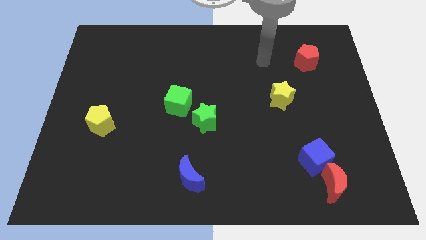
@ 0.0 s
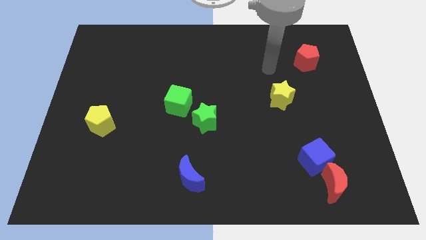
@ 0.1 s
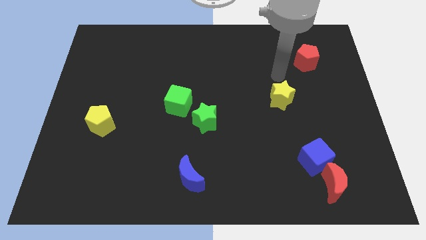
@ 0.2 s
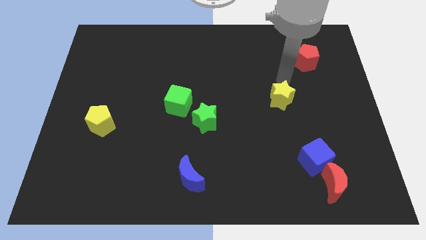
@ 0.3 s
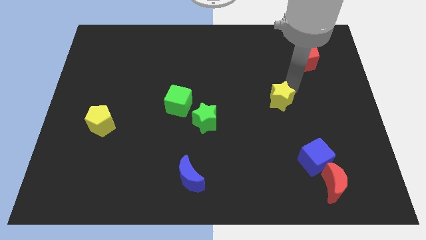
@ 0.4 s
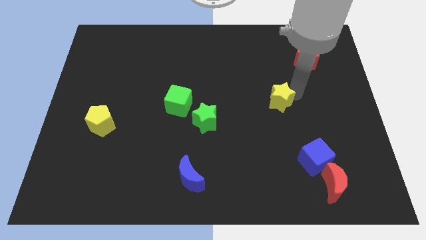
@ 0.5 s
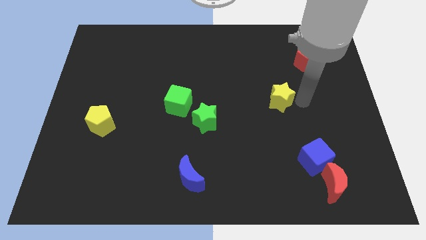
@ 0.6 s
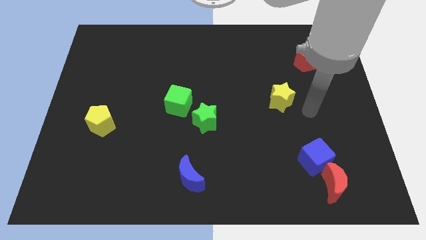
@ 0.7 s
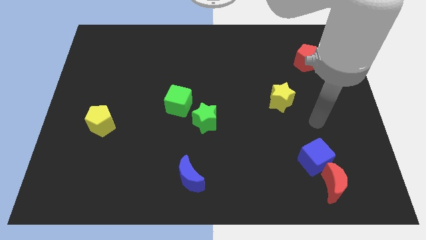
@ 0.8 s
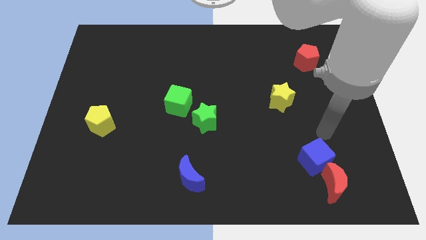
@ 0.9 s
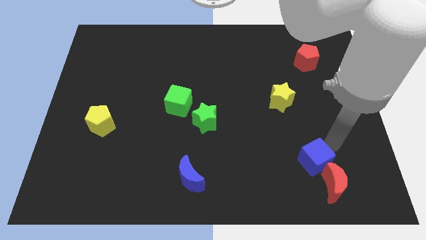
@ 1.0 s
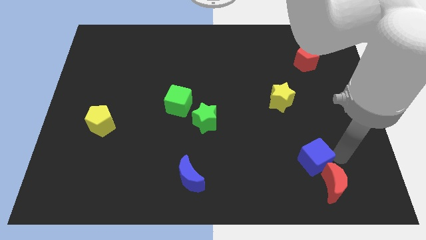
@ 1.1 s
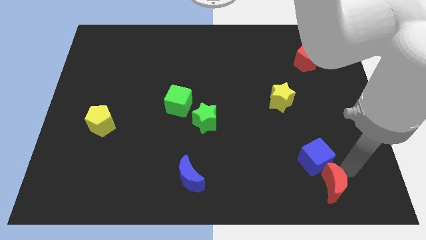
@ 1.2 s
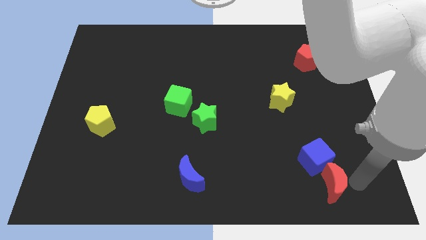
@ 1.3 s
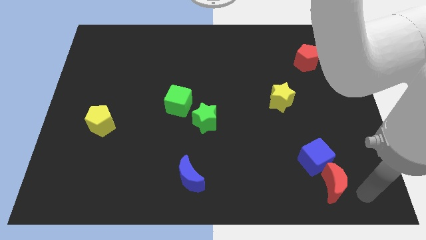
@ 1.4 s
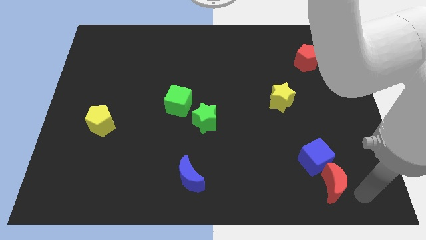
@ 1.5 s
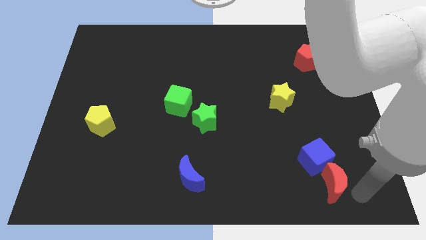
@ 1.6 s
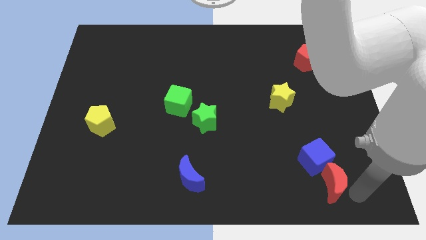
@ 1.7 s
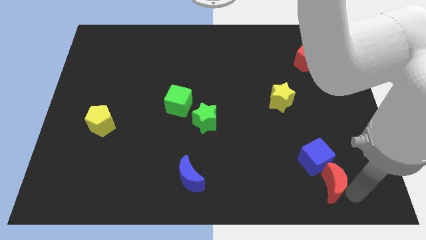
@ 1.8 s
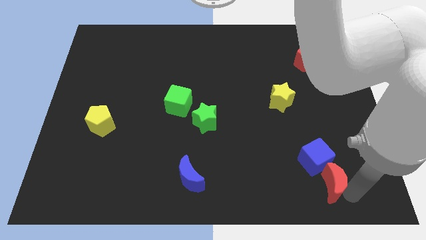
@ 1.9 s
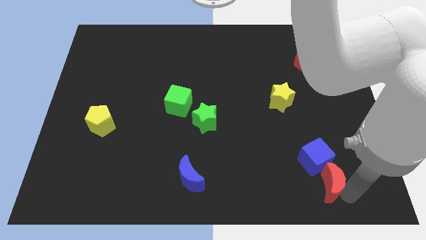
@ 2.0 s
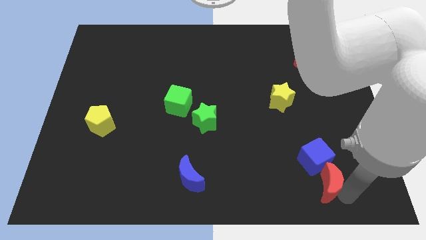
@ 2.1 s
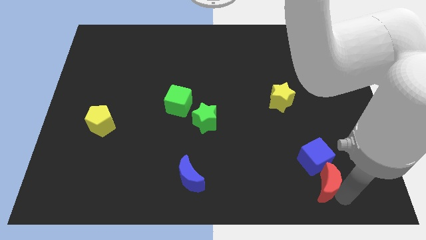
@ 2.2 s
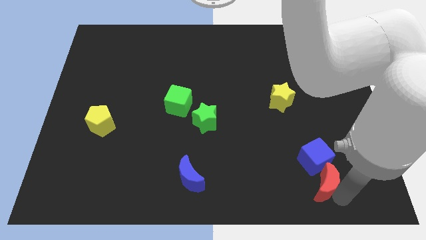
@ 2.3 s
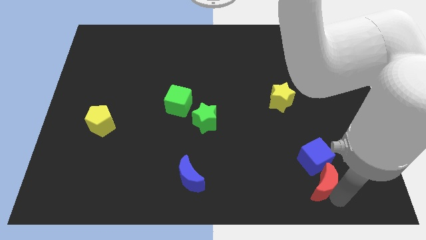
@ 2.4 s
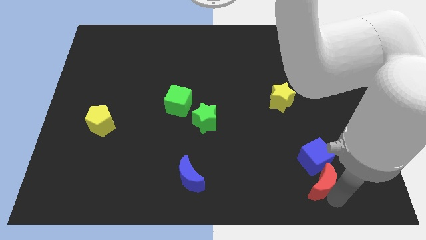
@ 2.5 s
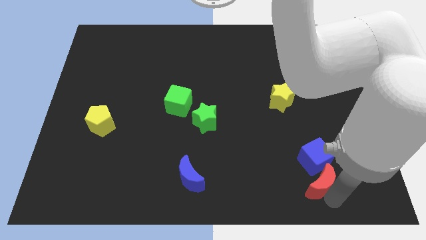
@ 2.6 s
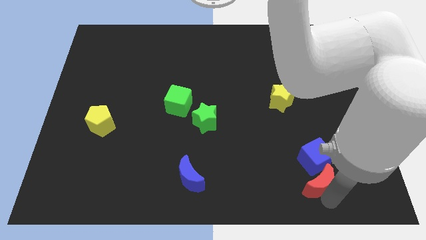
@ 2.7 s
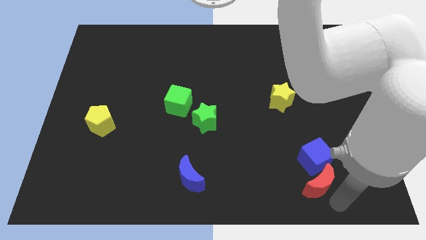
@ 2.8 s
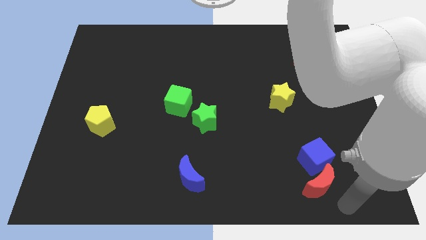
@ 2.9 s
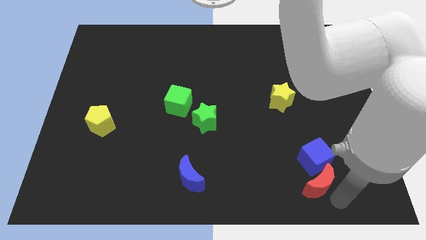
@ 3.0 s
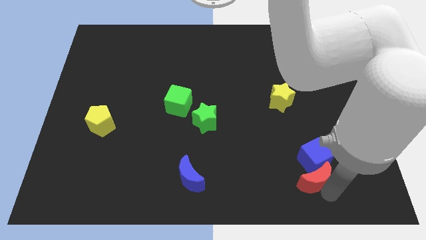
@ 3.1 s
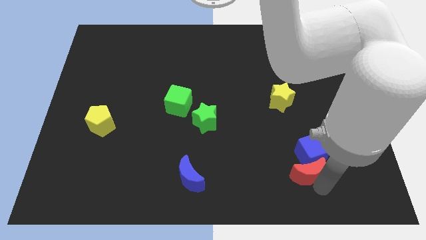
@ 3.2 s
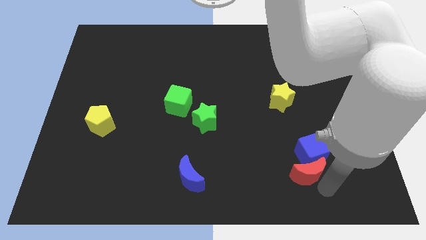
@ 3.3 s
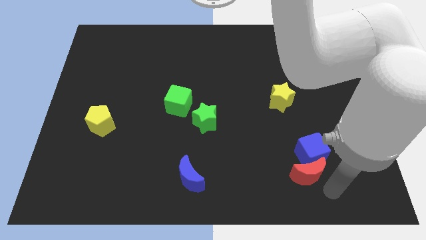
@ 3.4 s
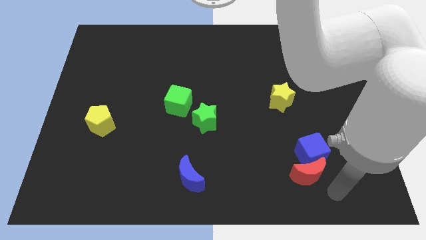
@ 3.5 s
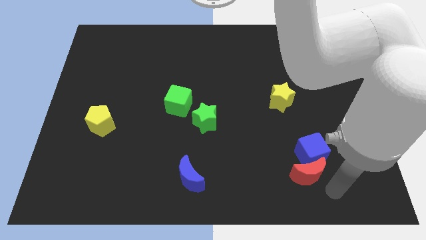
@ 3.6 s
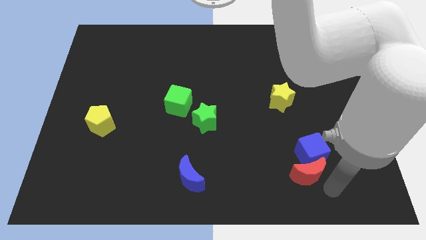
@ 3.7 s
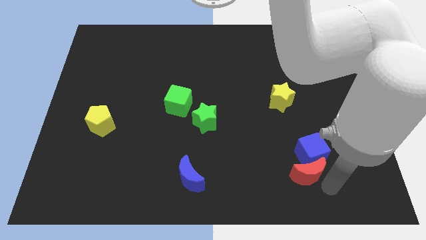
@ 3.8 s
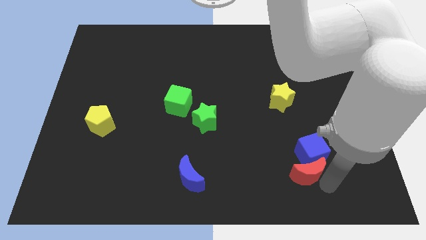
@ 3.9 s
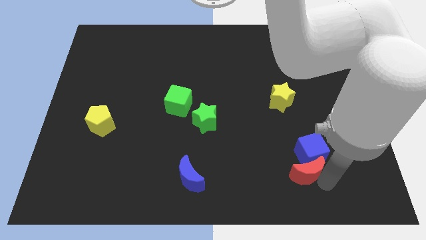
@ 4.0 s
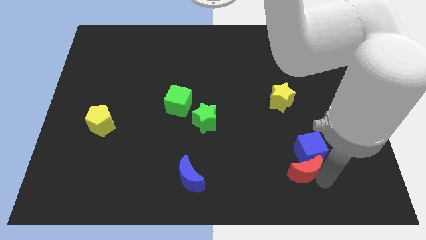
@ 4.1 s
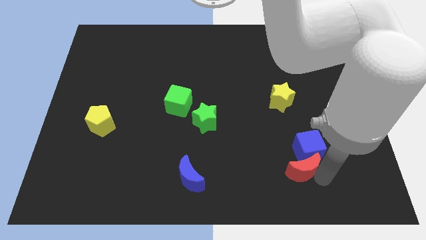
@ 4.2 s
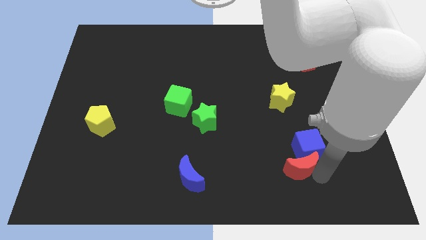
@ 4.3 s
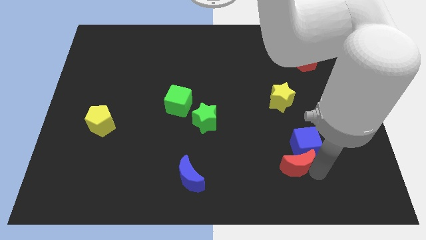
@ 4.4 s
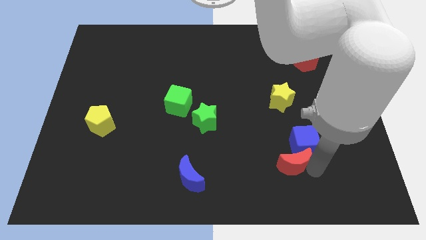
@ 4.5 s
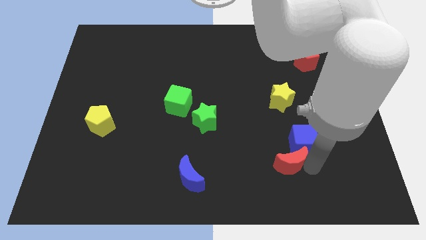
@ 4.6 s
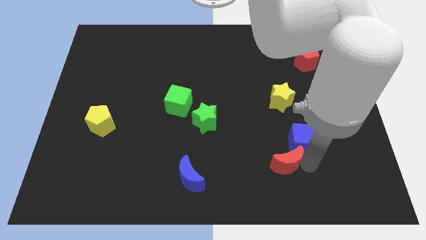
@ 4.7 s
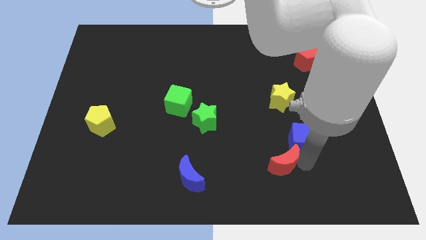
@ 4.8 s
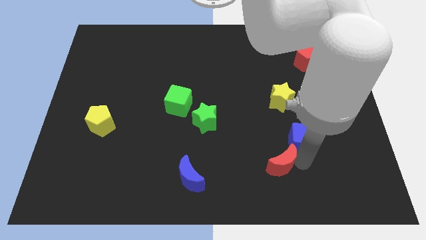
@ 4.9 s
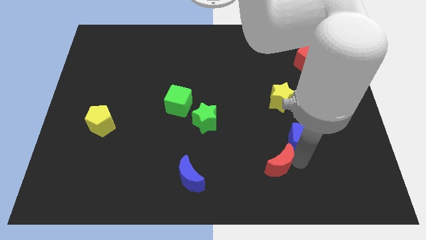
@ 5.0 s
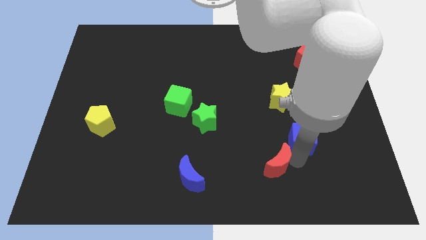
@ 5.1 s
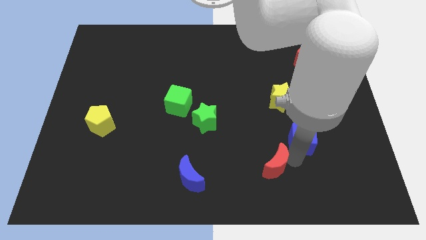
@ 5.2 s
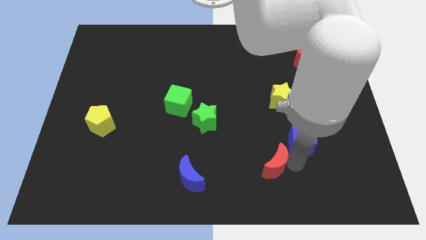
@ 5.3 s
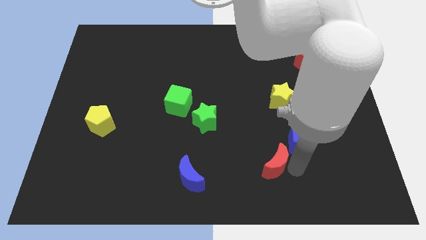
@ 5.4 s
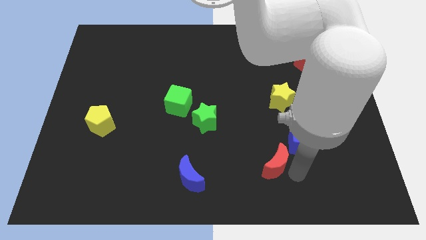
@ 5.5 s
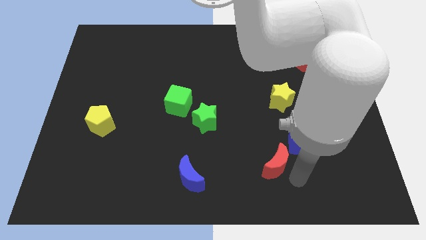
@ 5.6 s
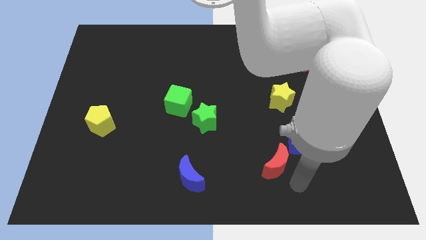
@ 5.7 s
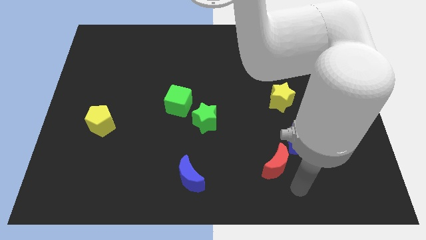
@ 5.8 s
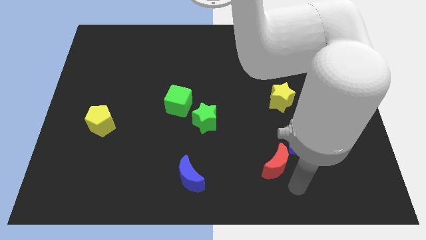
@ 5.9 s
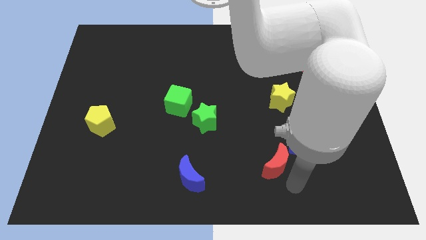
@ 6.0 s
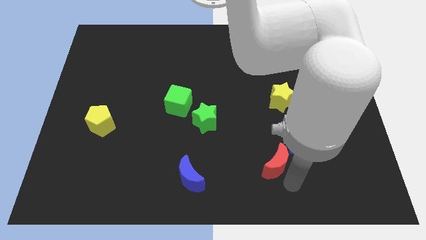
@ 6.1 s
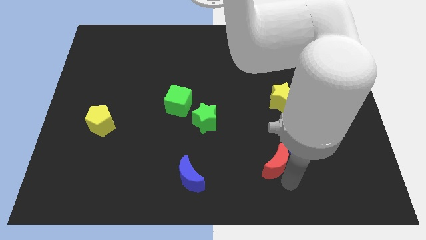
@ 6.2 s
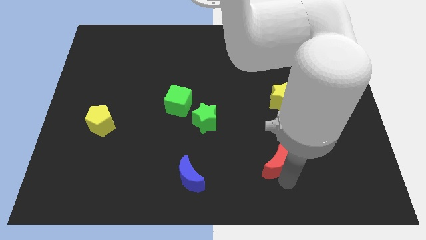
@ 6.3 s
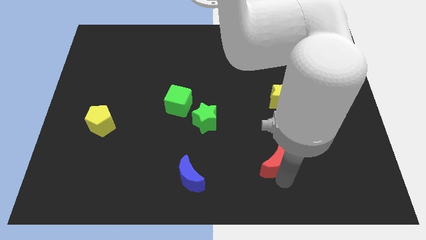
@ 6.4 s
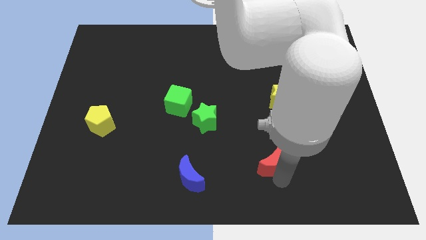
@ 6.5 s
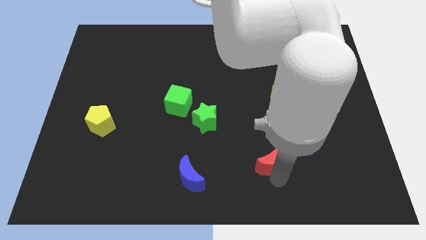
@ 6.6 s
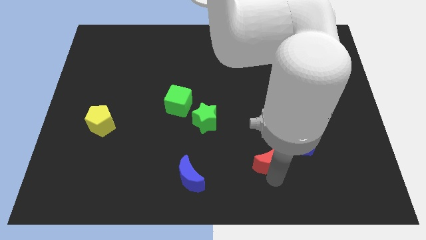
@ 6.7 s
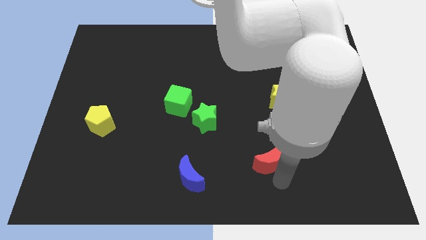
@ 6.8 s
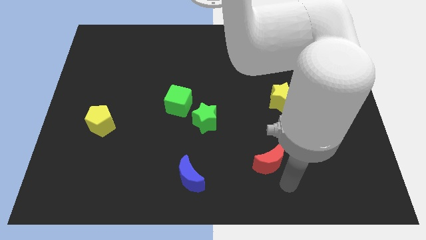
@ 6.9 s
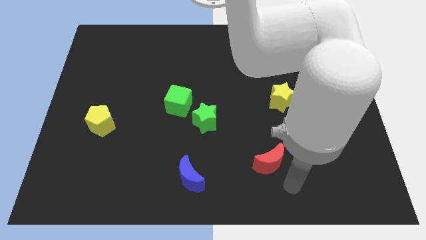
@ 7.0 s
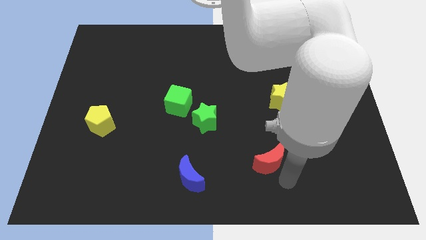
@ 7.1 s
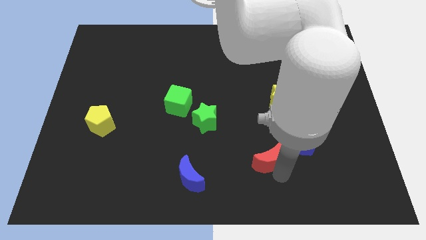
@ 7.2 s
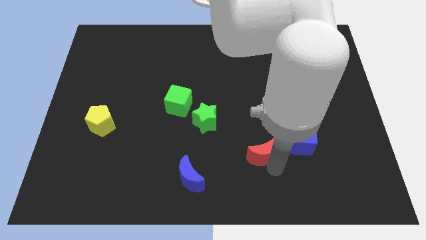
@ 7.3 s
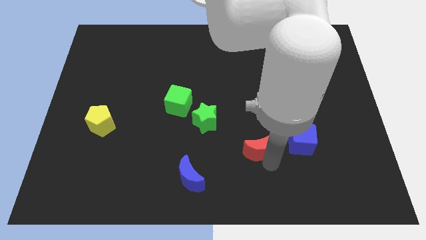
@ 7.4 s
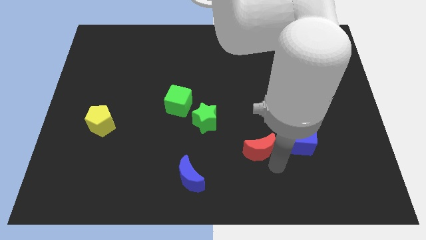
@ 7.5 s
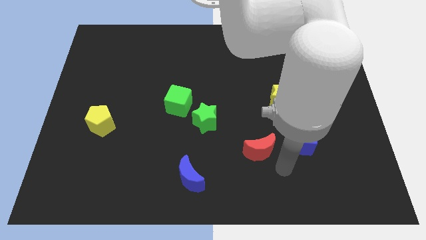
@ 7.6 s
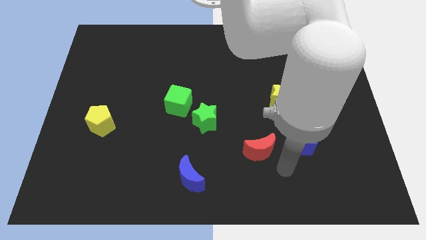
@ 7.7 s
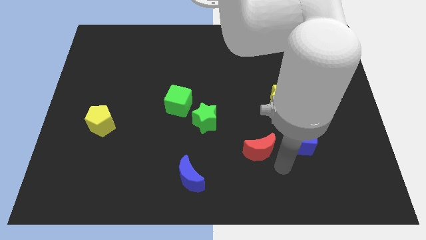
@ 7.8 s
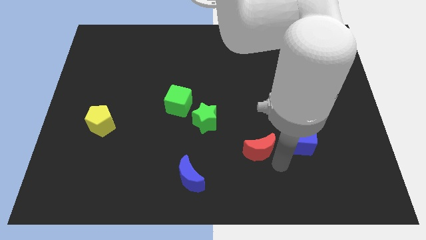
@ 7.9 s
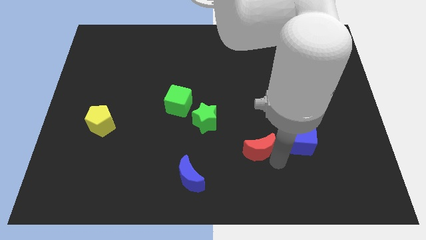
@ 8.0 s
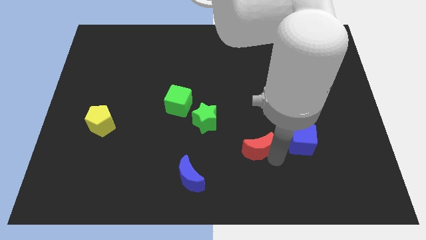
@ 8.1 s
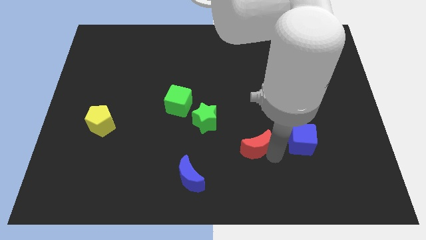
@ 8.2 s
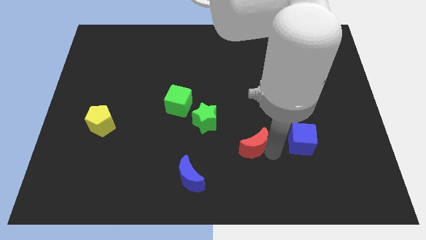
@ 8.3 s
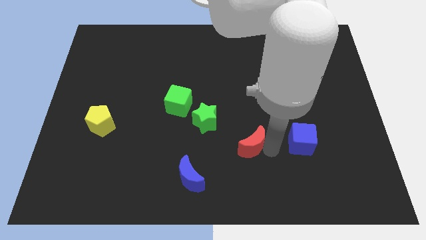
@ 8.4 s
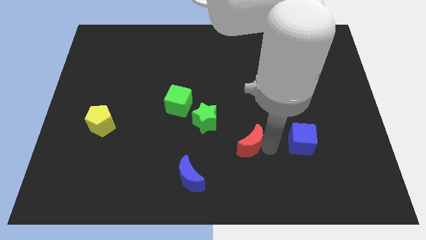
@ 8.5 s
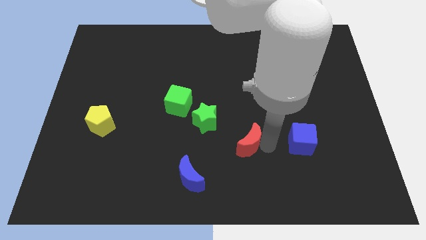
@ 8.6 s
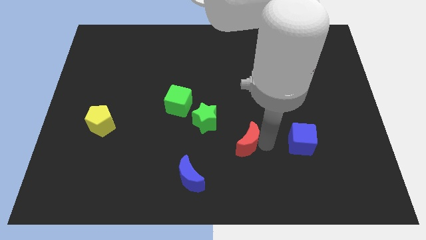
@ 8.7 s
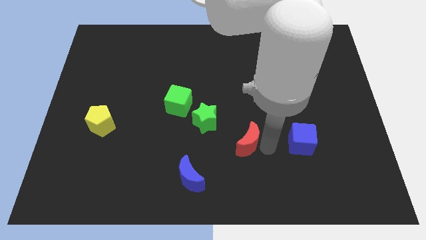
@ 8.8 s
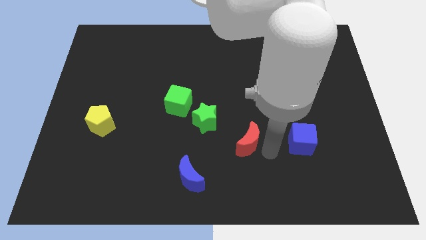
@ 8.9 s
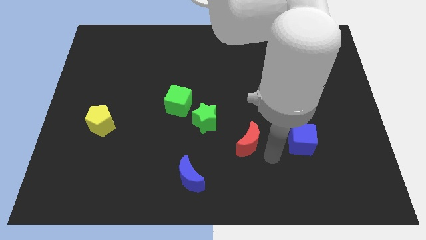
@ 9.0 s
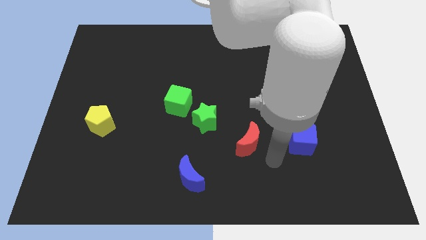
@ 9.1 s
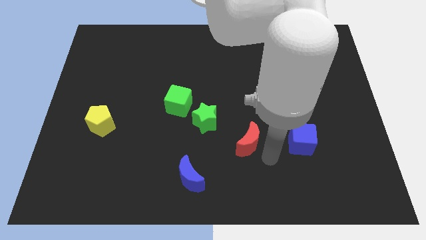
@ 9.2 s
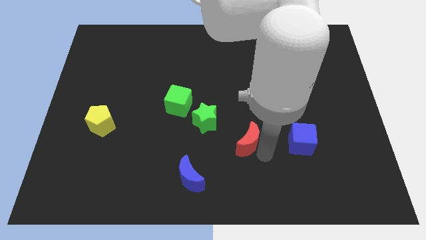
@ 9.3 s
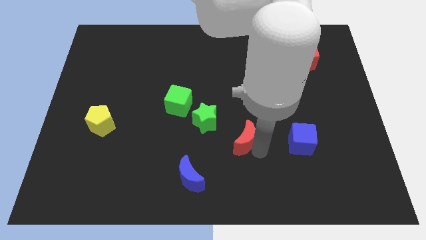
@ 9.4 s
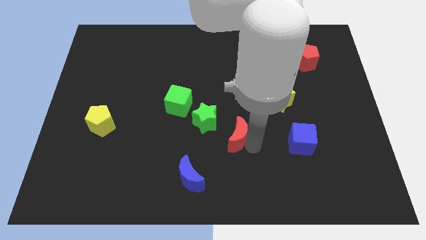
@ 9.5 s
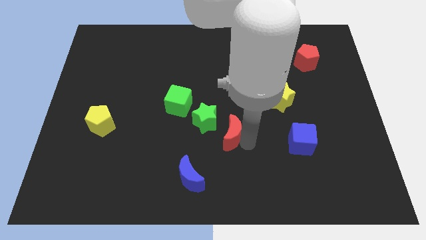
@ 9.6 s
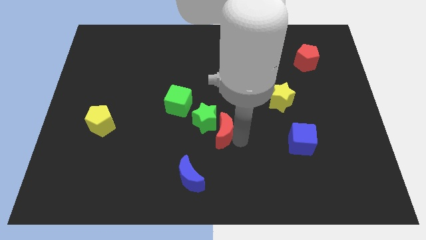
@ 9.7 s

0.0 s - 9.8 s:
slide the red moon next to the green star
